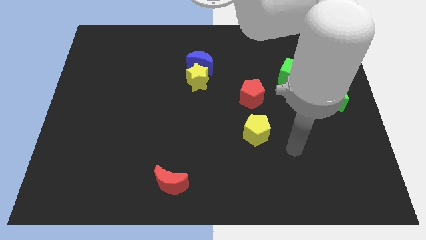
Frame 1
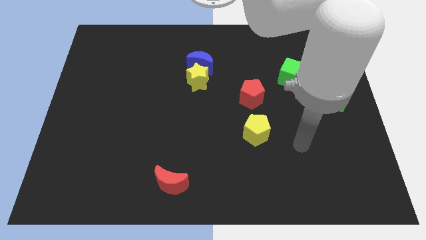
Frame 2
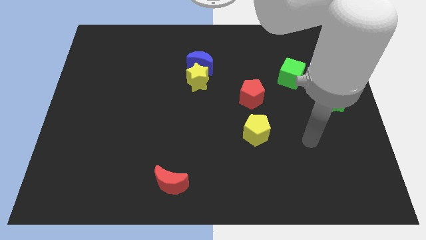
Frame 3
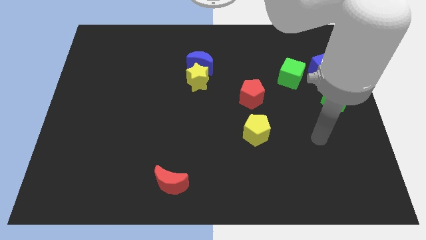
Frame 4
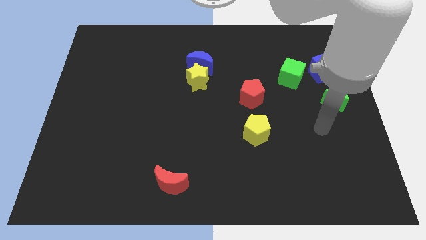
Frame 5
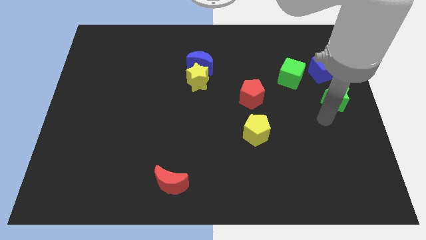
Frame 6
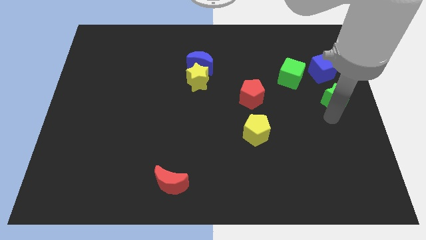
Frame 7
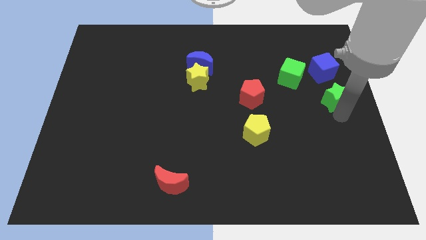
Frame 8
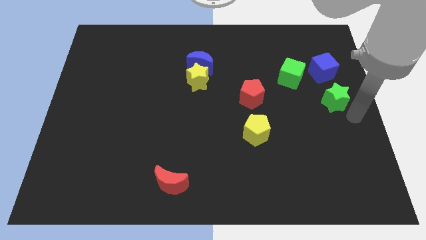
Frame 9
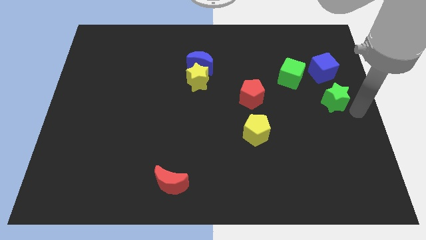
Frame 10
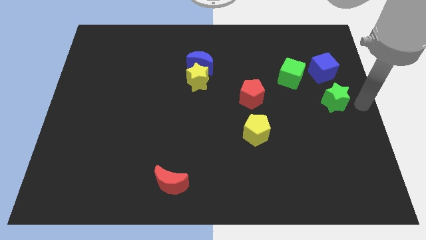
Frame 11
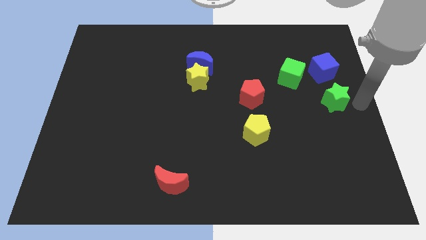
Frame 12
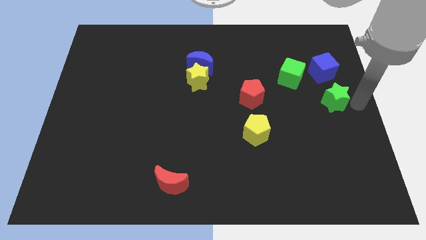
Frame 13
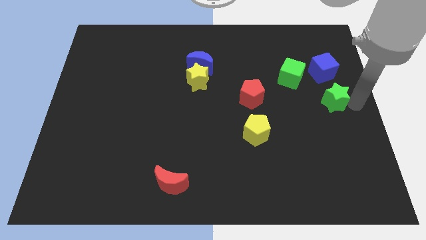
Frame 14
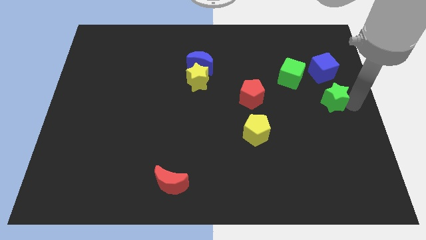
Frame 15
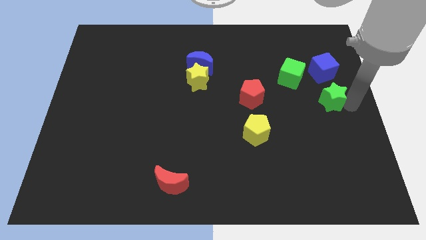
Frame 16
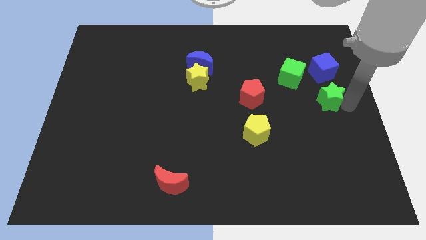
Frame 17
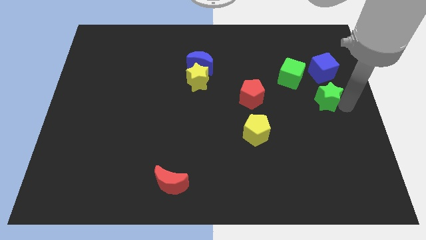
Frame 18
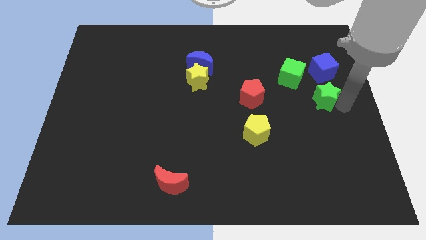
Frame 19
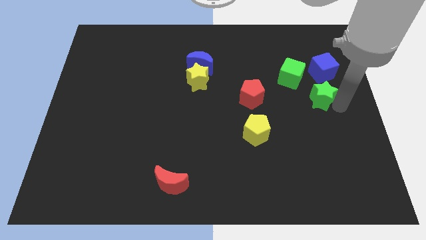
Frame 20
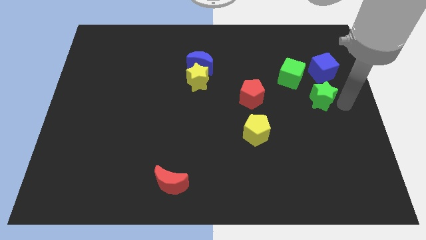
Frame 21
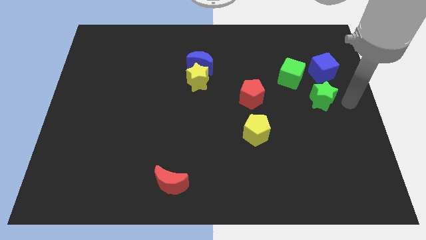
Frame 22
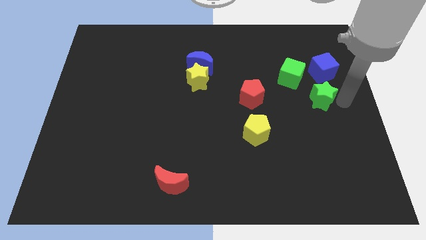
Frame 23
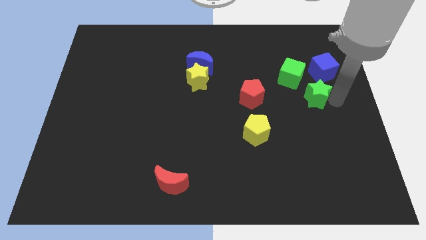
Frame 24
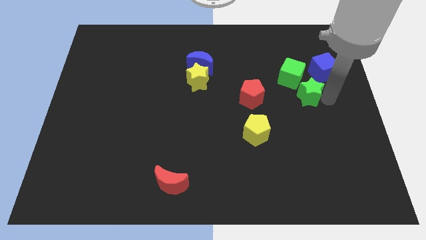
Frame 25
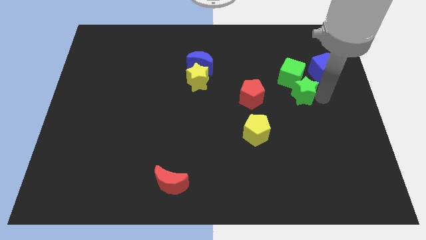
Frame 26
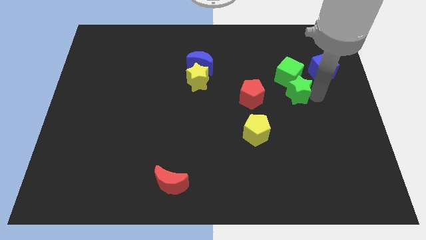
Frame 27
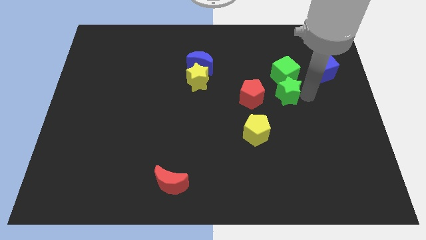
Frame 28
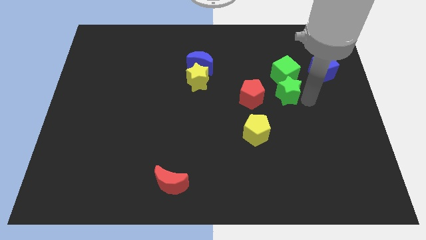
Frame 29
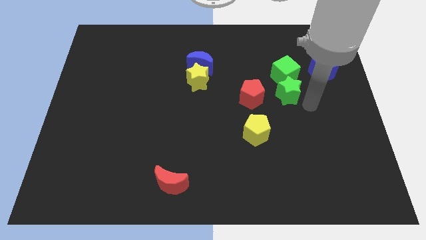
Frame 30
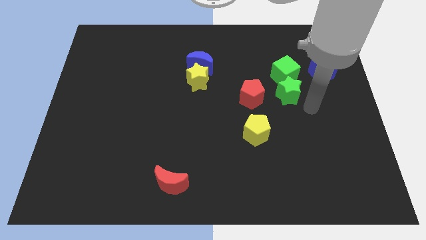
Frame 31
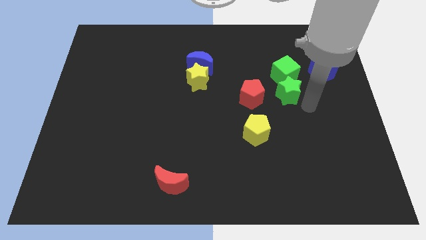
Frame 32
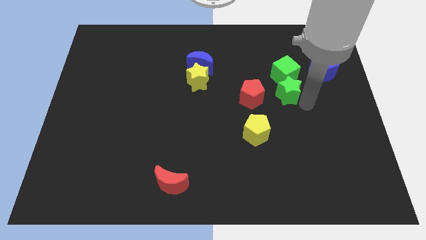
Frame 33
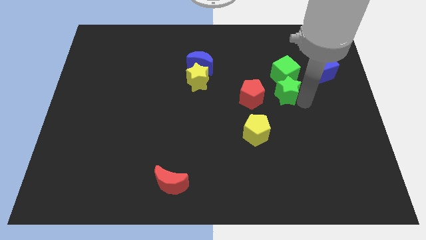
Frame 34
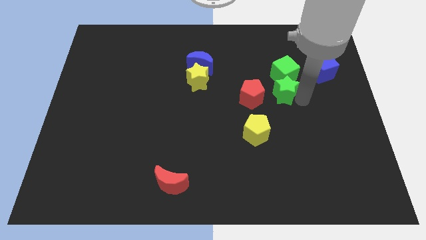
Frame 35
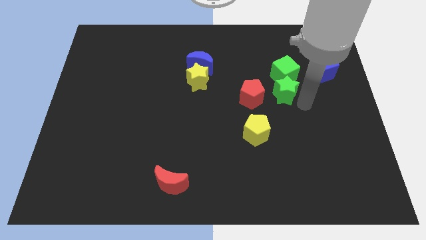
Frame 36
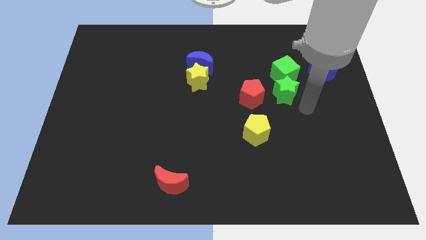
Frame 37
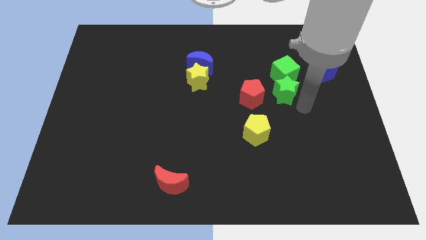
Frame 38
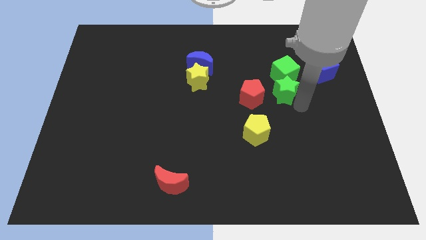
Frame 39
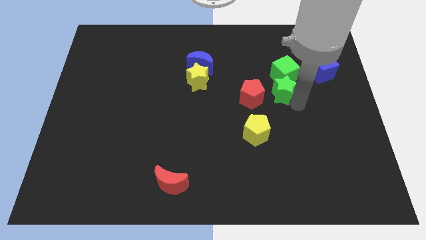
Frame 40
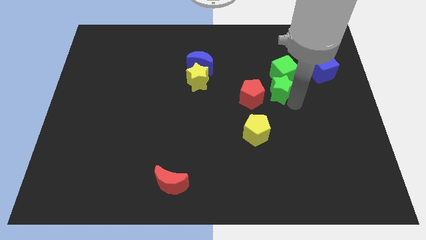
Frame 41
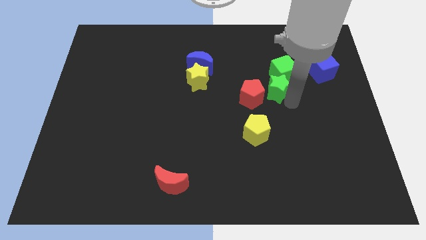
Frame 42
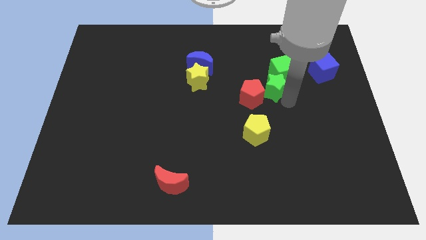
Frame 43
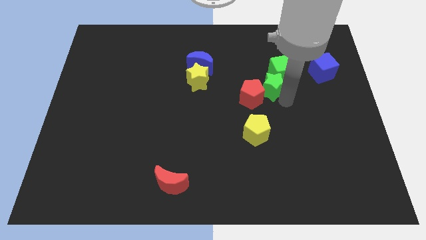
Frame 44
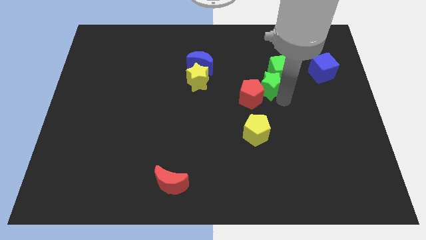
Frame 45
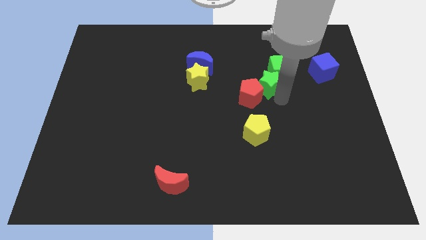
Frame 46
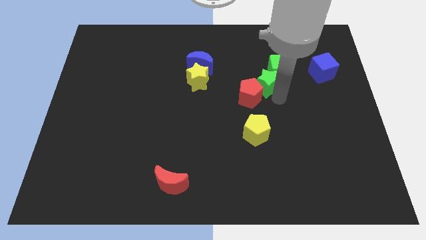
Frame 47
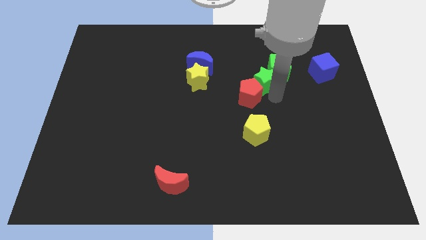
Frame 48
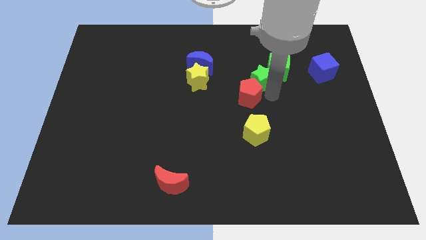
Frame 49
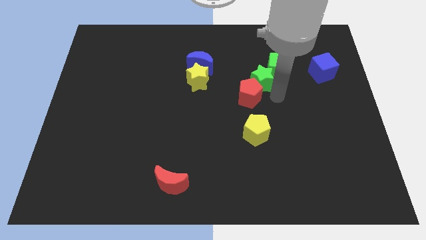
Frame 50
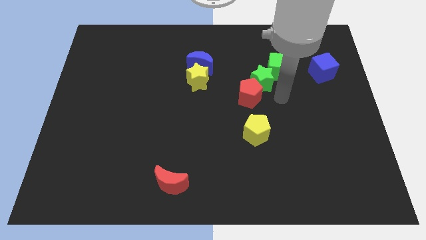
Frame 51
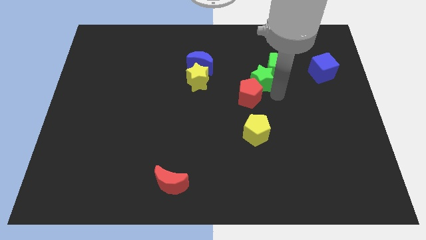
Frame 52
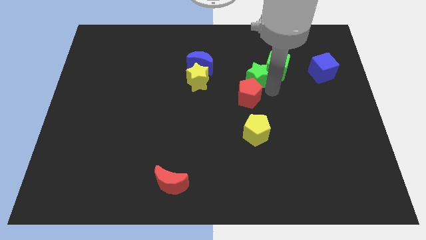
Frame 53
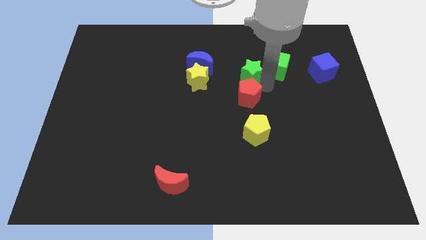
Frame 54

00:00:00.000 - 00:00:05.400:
slide the green star to the right side of the blue moon

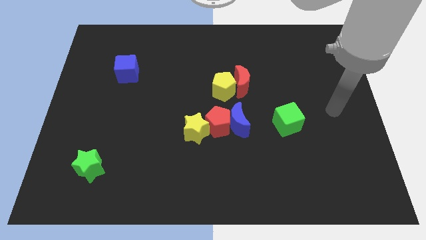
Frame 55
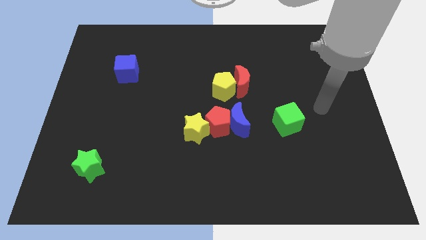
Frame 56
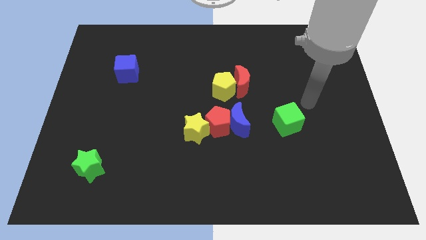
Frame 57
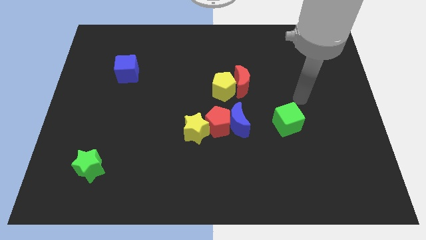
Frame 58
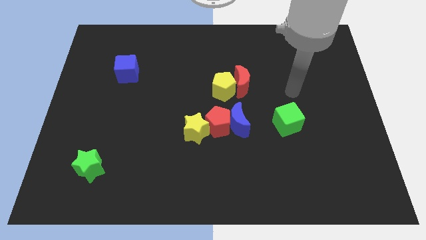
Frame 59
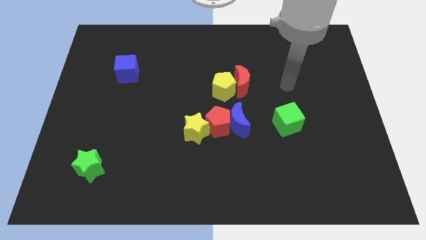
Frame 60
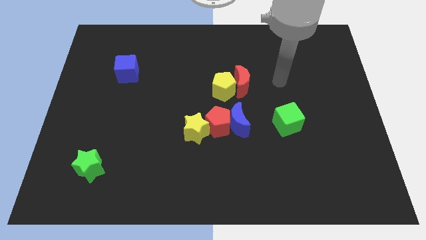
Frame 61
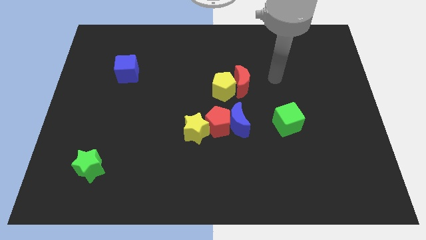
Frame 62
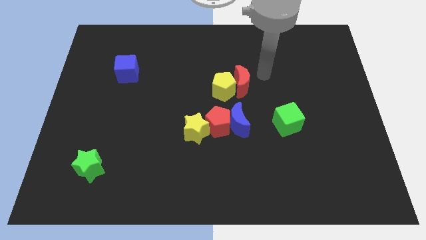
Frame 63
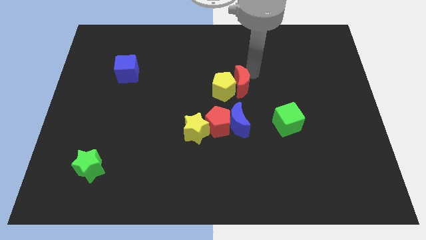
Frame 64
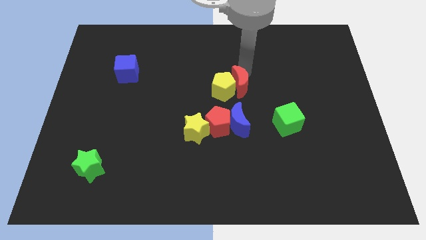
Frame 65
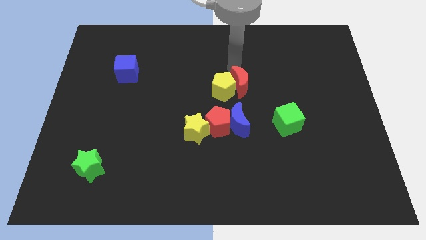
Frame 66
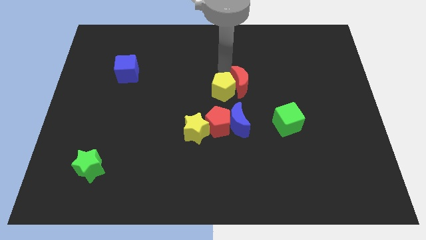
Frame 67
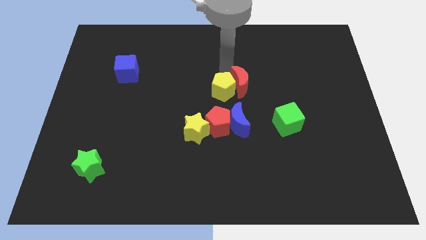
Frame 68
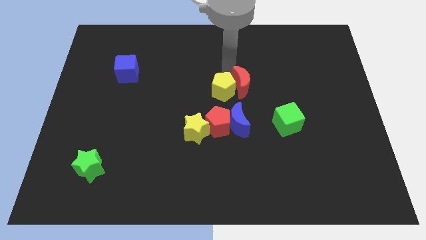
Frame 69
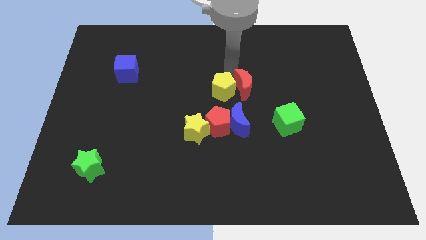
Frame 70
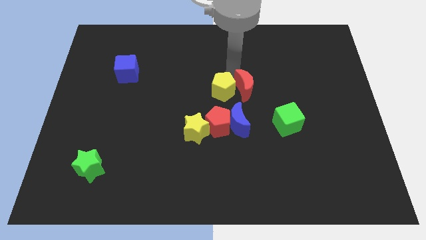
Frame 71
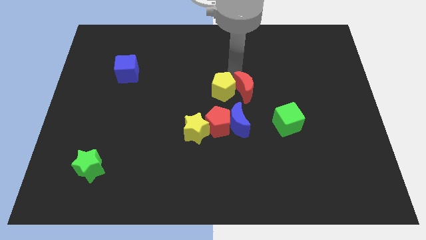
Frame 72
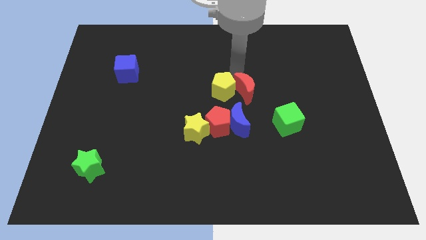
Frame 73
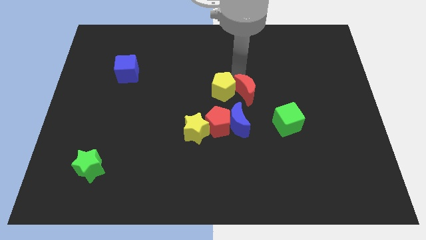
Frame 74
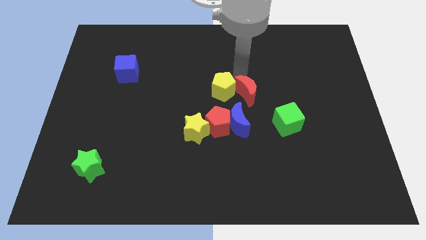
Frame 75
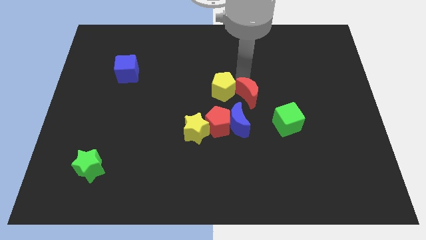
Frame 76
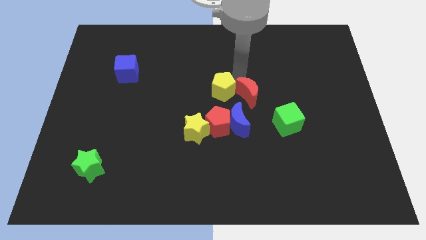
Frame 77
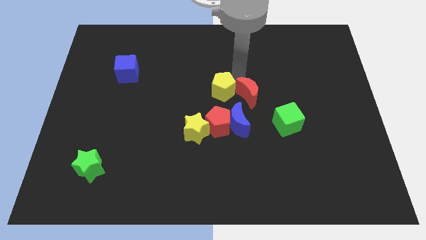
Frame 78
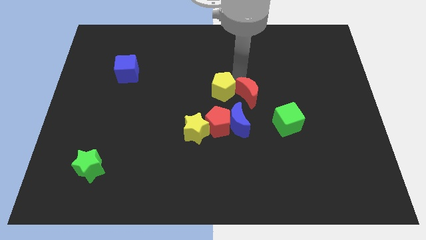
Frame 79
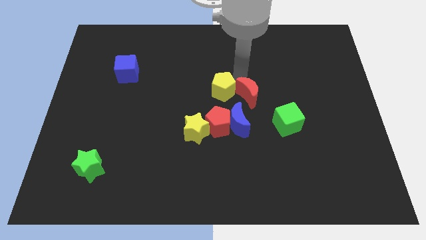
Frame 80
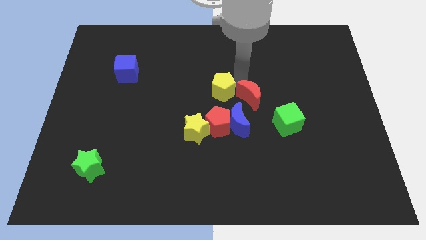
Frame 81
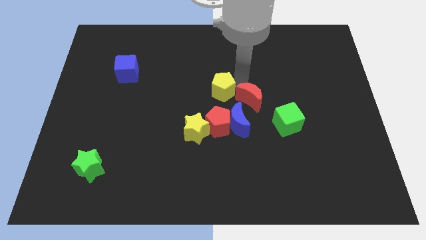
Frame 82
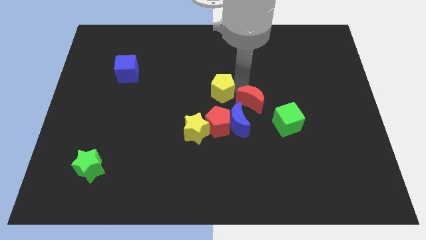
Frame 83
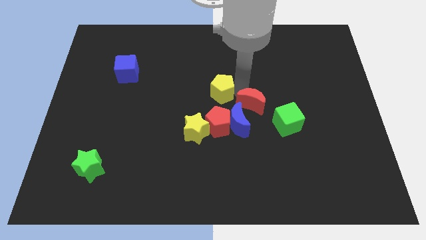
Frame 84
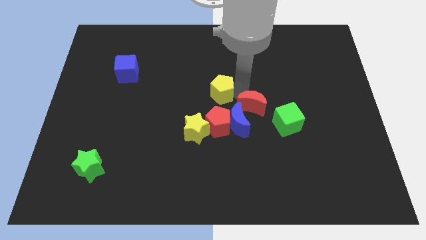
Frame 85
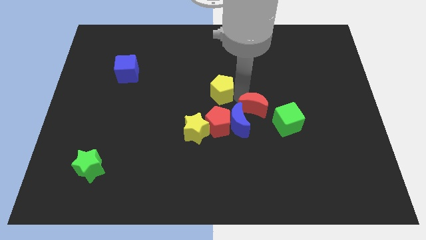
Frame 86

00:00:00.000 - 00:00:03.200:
slide the red moon to the right side of the red pentagon
